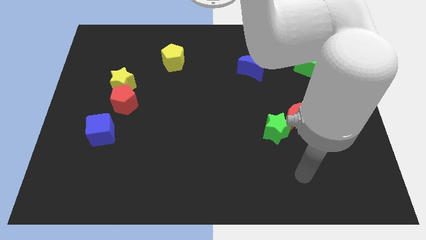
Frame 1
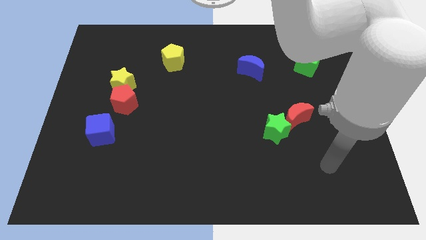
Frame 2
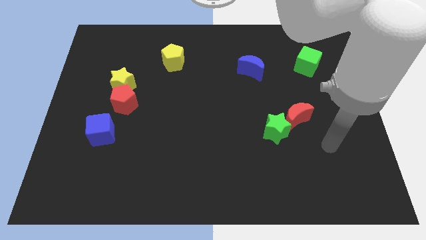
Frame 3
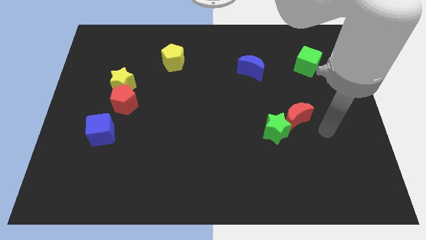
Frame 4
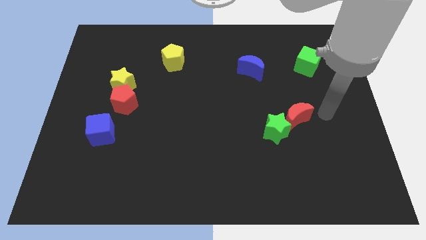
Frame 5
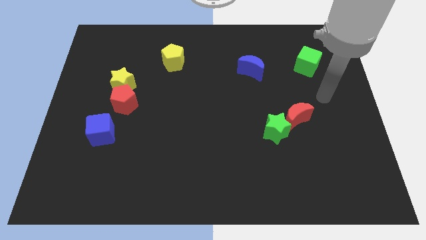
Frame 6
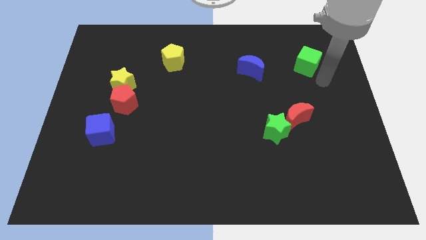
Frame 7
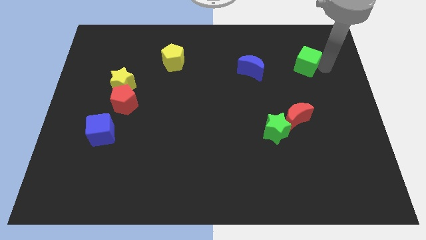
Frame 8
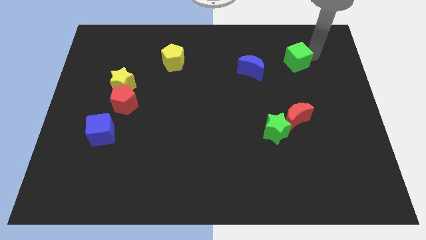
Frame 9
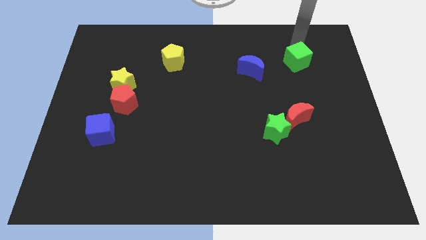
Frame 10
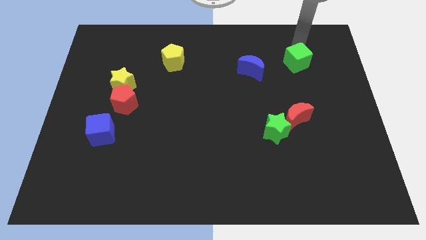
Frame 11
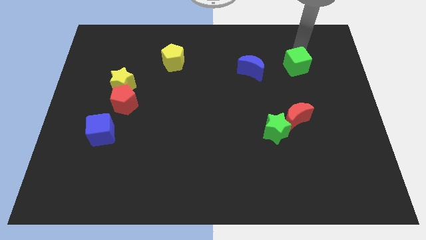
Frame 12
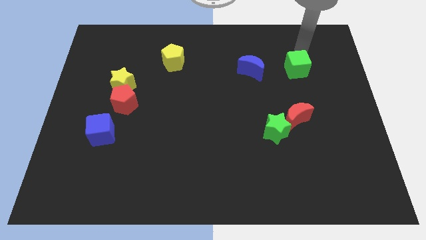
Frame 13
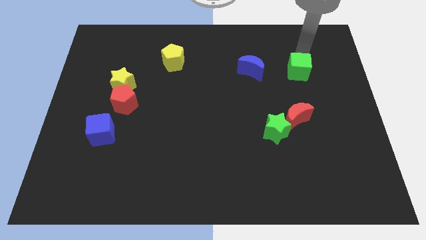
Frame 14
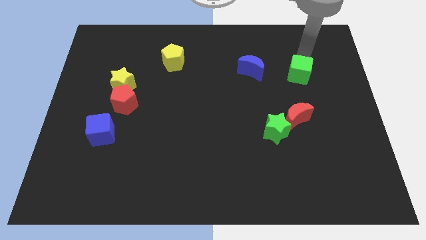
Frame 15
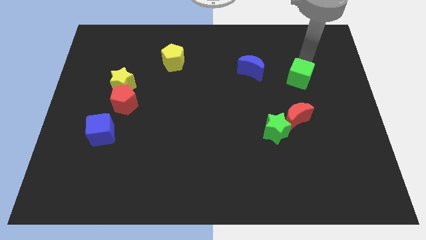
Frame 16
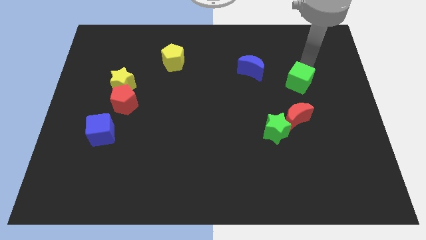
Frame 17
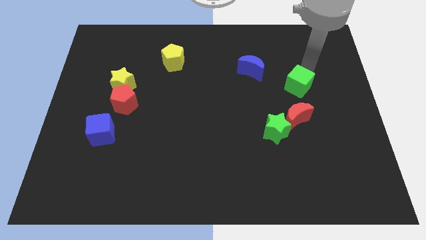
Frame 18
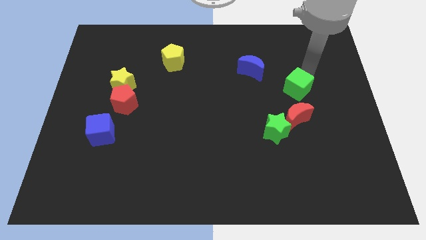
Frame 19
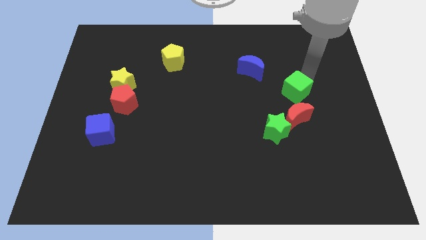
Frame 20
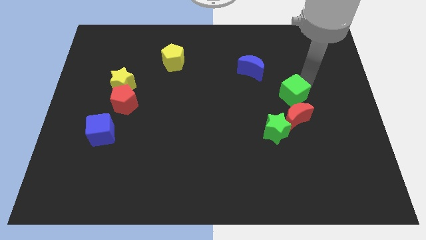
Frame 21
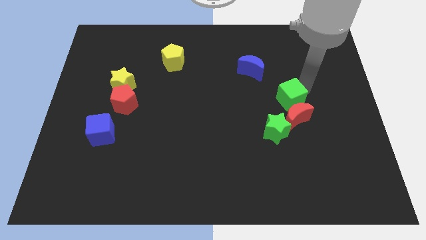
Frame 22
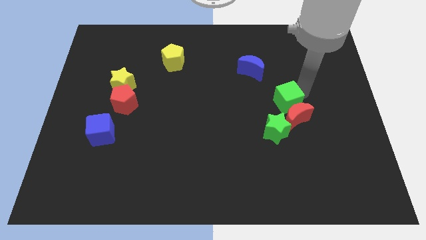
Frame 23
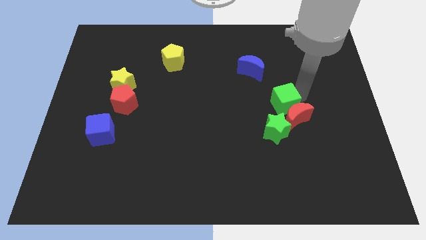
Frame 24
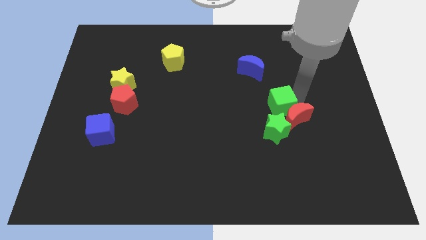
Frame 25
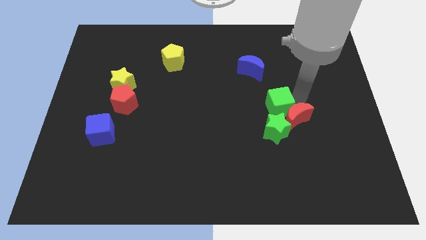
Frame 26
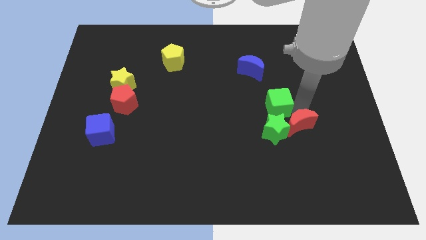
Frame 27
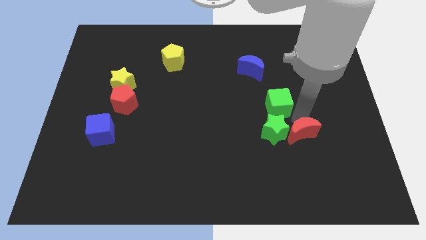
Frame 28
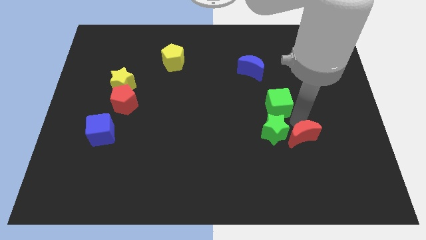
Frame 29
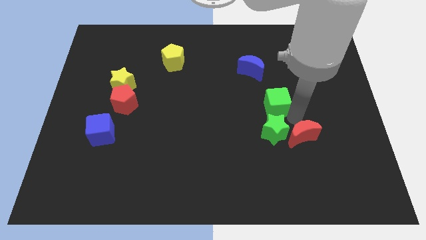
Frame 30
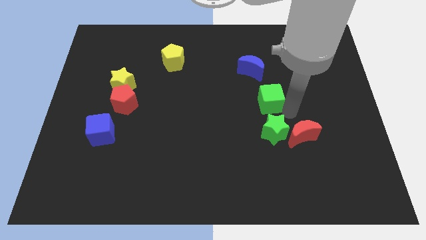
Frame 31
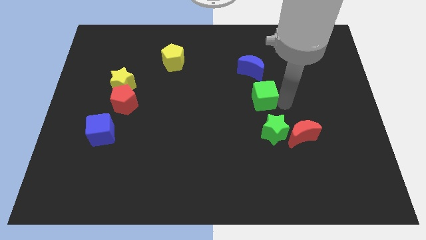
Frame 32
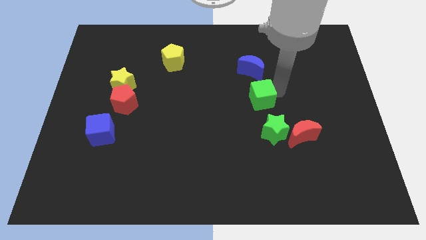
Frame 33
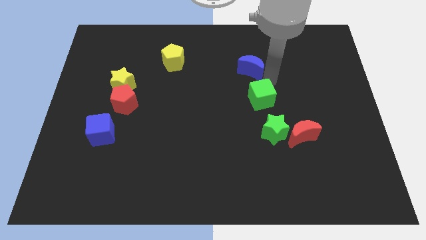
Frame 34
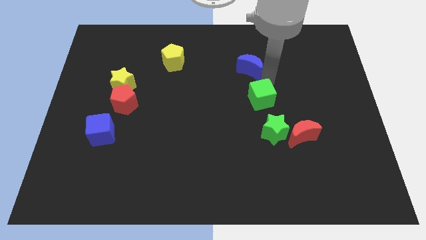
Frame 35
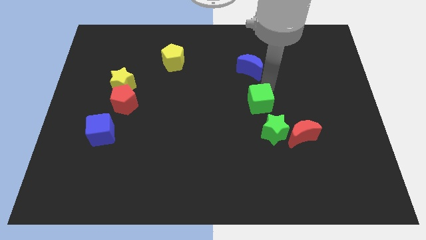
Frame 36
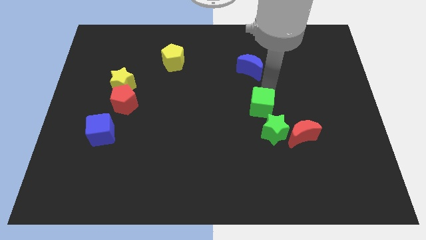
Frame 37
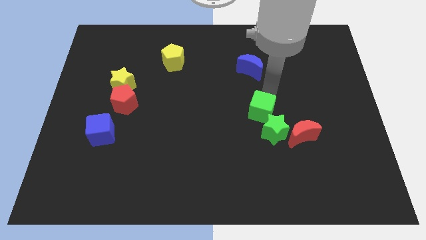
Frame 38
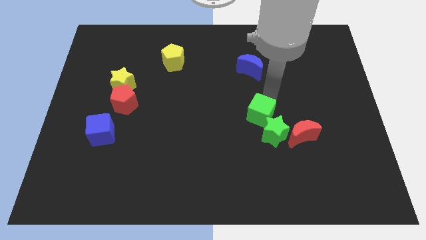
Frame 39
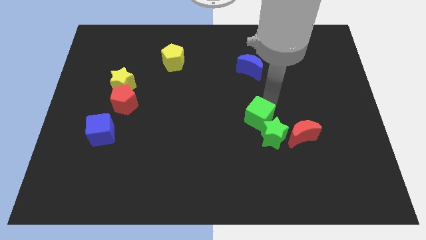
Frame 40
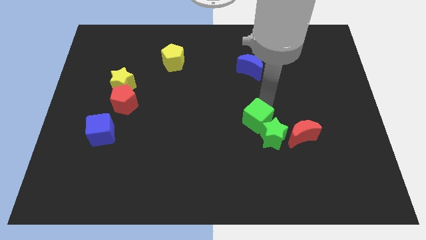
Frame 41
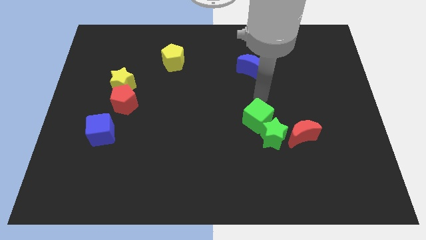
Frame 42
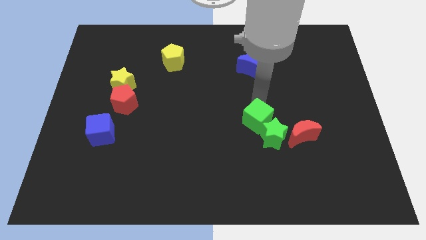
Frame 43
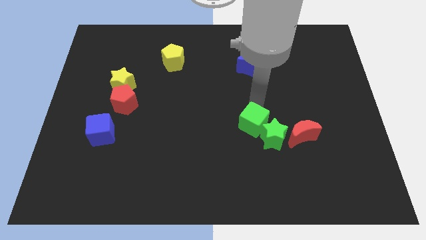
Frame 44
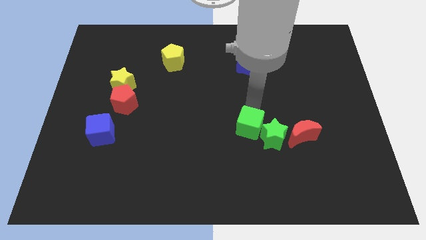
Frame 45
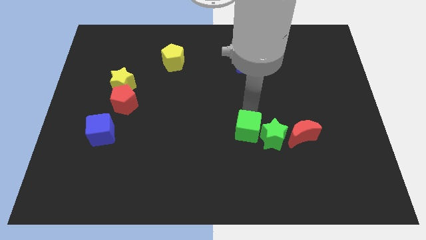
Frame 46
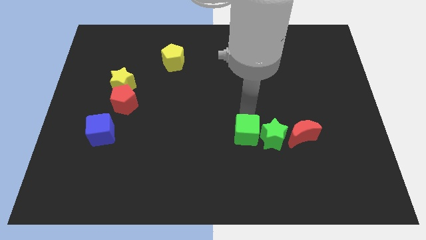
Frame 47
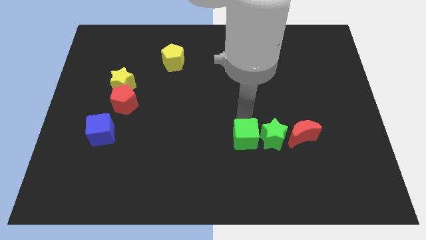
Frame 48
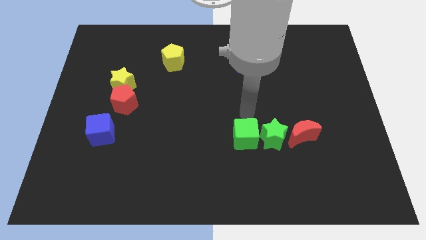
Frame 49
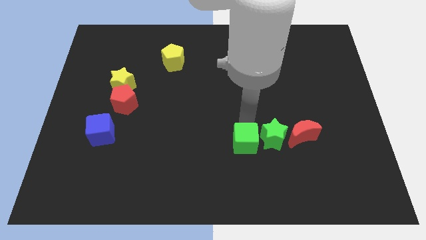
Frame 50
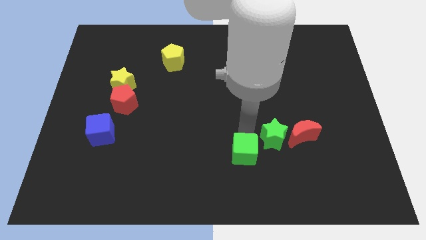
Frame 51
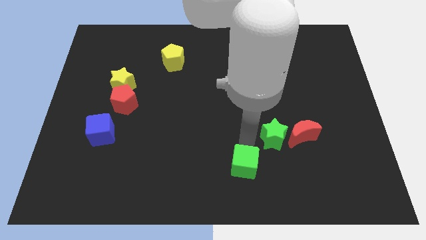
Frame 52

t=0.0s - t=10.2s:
slide the green cube to the bottom side
